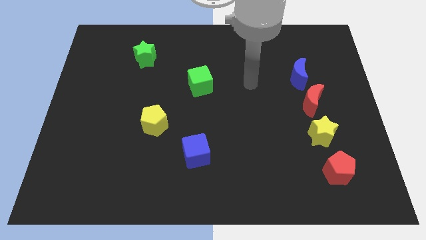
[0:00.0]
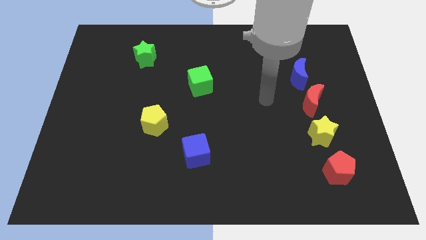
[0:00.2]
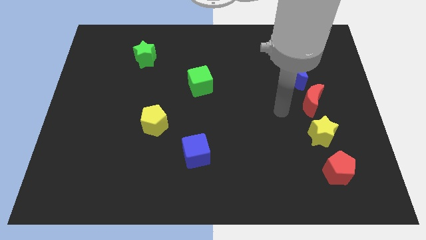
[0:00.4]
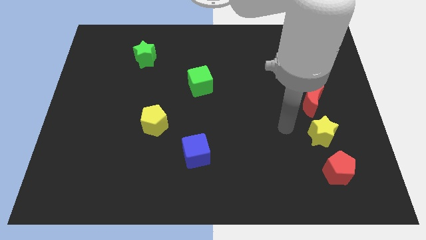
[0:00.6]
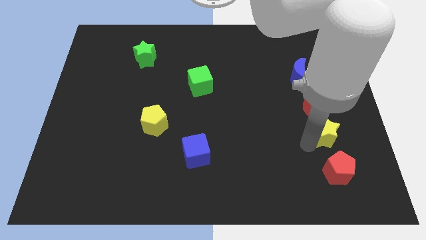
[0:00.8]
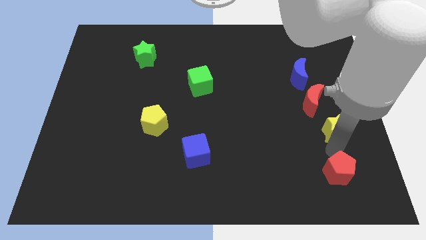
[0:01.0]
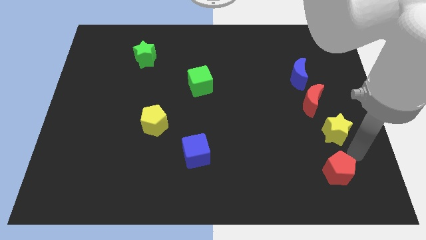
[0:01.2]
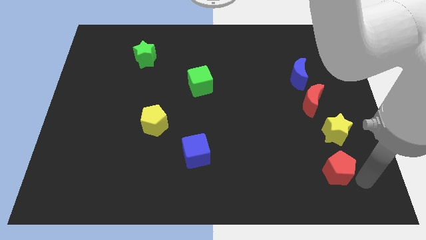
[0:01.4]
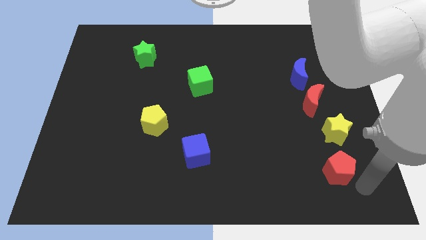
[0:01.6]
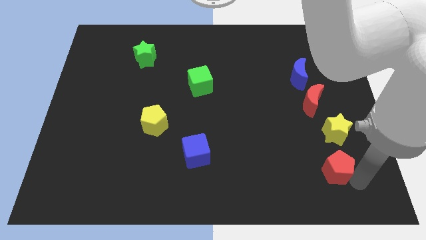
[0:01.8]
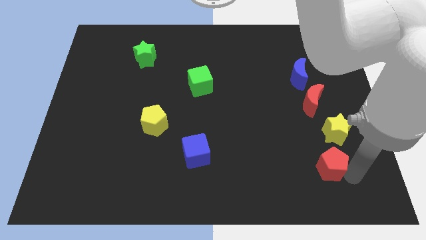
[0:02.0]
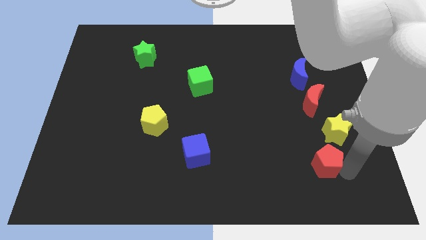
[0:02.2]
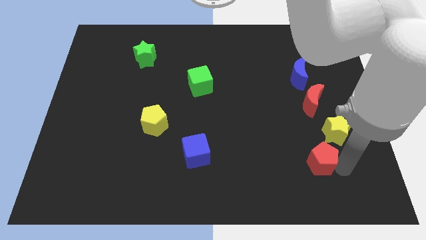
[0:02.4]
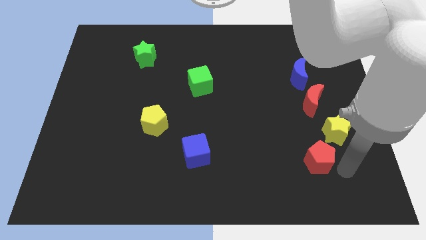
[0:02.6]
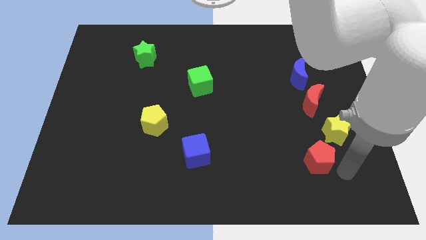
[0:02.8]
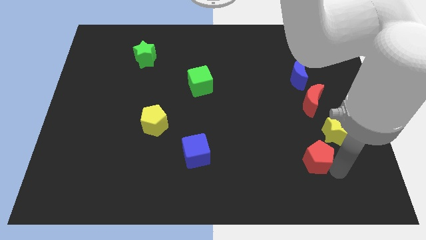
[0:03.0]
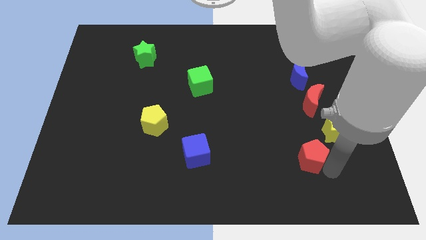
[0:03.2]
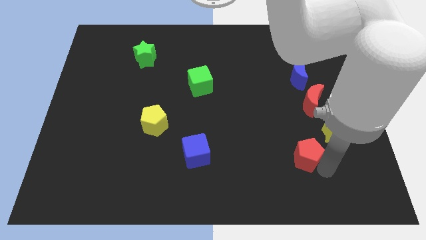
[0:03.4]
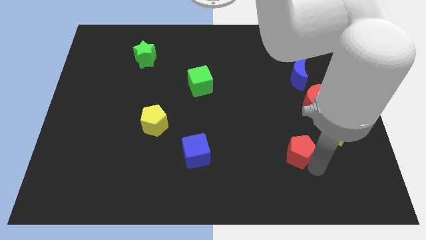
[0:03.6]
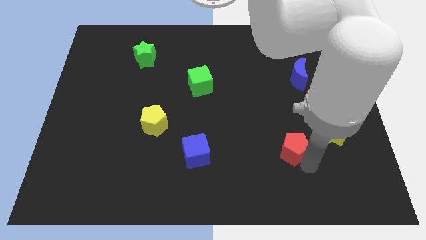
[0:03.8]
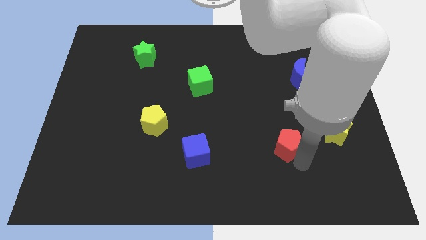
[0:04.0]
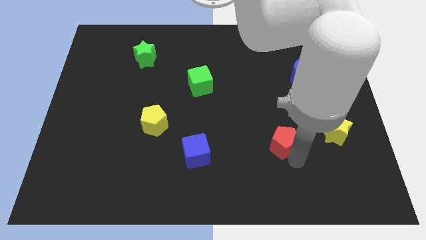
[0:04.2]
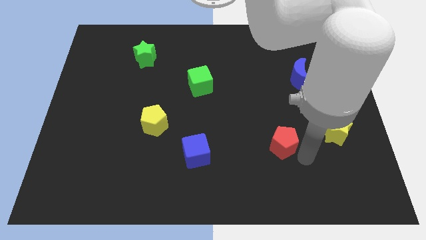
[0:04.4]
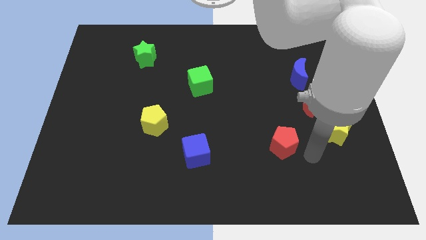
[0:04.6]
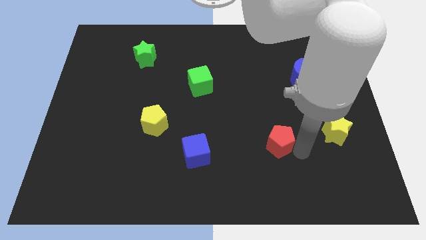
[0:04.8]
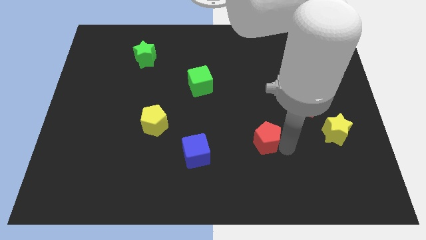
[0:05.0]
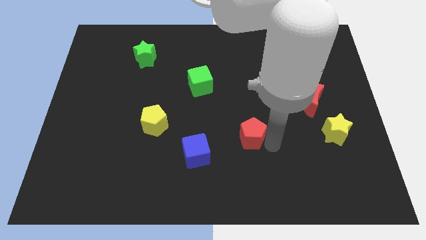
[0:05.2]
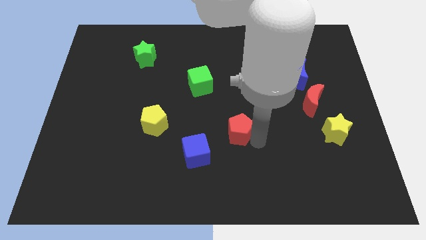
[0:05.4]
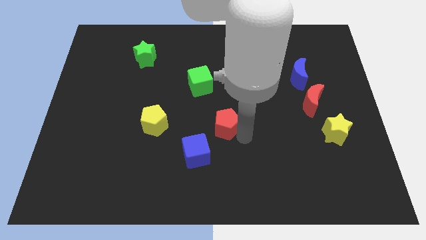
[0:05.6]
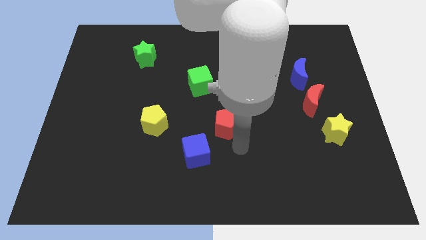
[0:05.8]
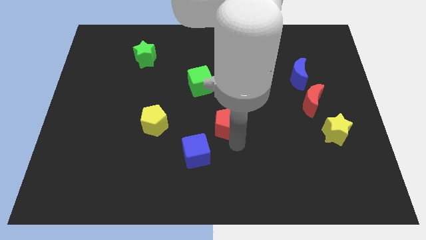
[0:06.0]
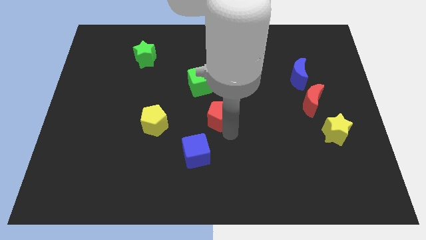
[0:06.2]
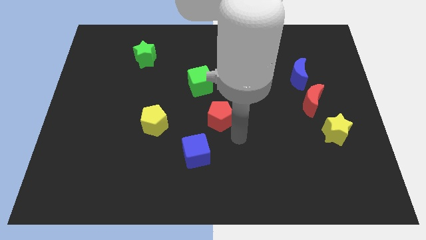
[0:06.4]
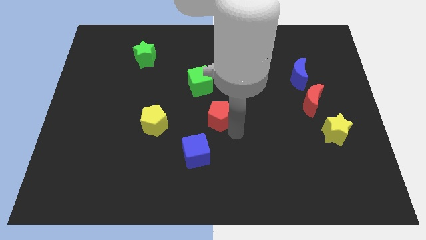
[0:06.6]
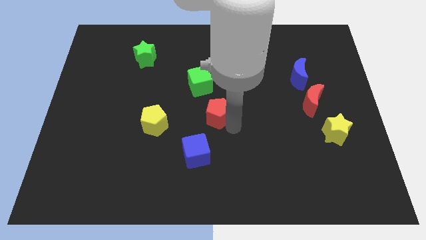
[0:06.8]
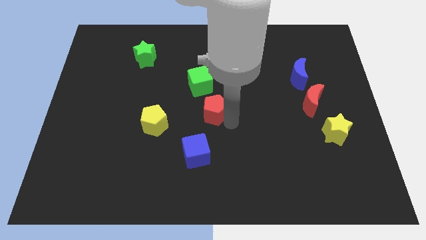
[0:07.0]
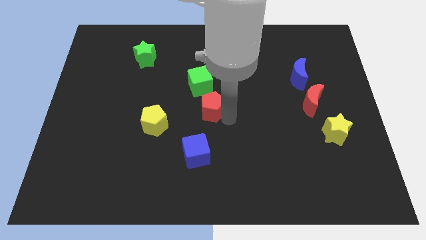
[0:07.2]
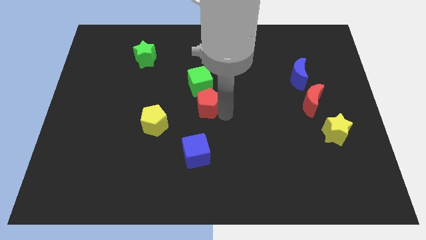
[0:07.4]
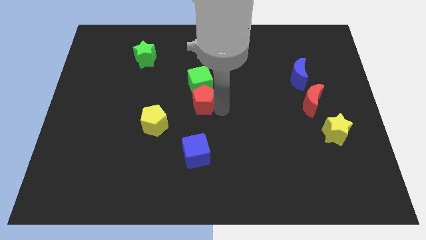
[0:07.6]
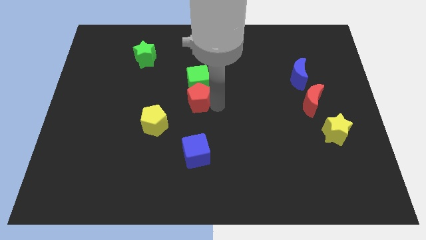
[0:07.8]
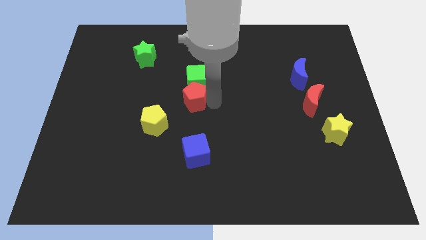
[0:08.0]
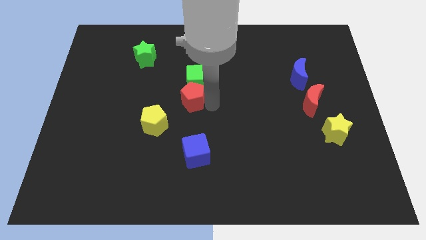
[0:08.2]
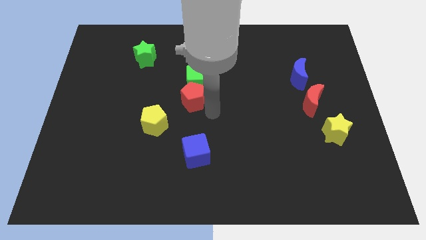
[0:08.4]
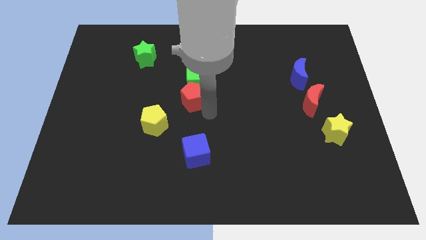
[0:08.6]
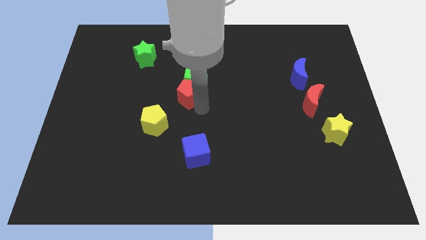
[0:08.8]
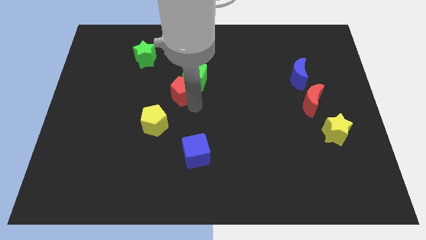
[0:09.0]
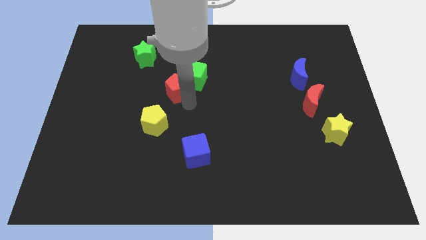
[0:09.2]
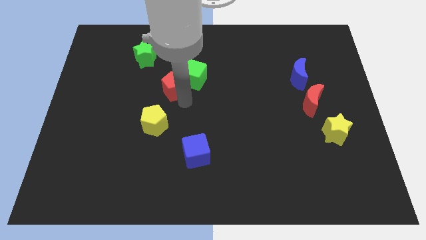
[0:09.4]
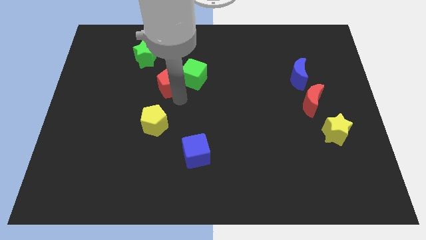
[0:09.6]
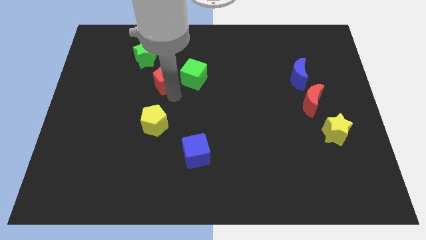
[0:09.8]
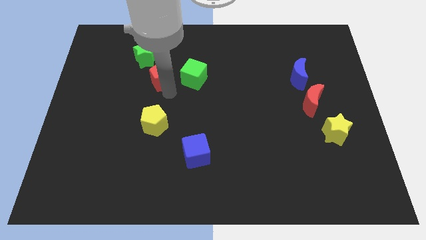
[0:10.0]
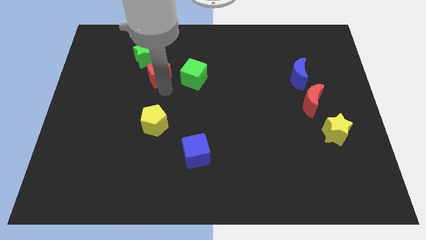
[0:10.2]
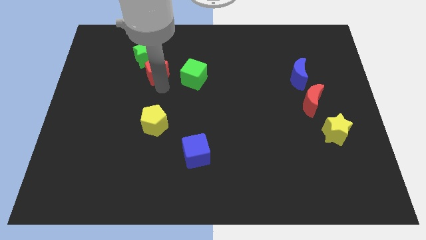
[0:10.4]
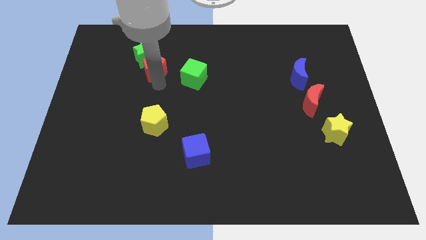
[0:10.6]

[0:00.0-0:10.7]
move the red pentagon towards the green star

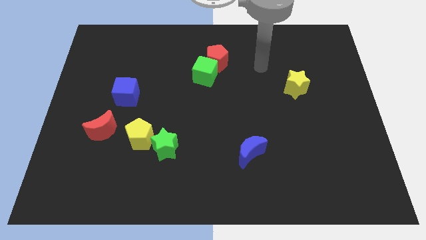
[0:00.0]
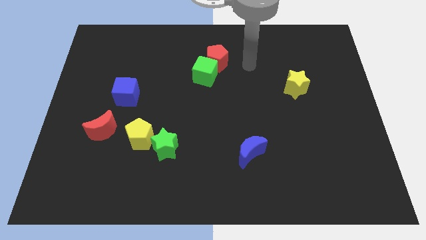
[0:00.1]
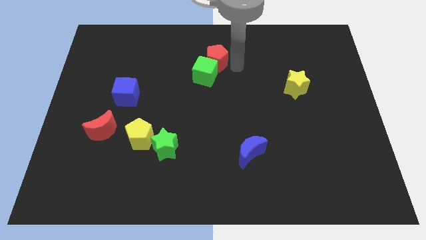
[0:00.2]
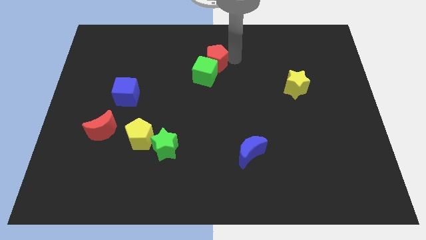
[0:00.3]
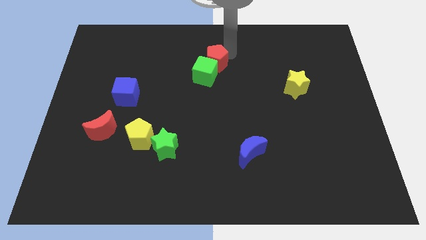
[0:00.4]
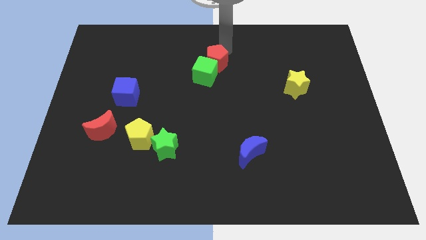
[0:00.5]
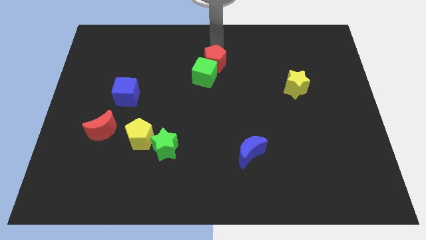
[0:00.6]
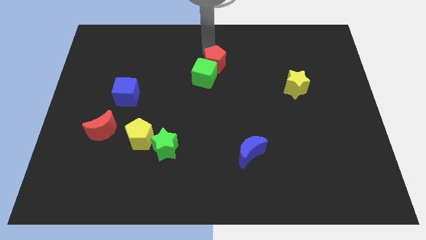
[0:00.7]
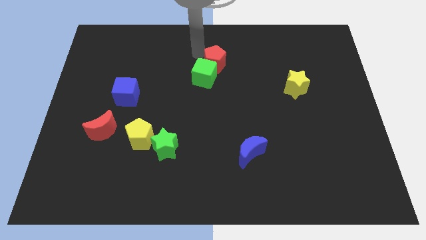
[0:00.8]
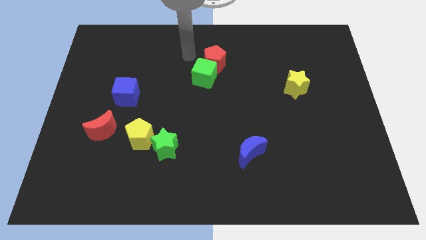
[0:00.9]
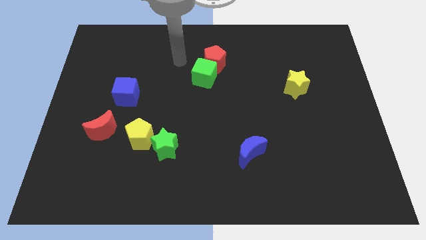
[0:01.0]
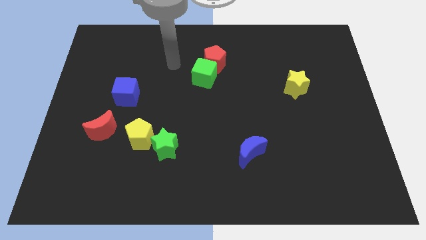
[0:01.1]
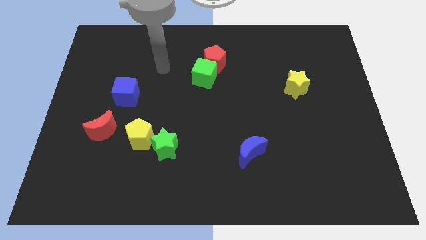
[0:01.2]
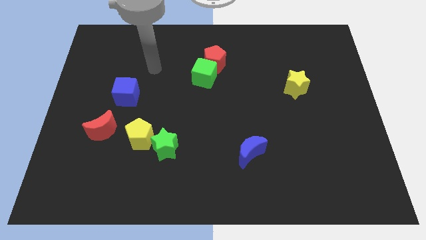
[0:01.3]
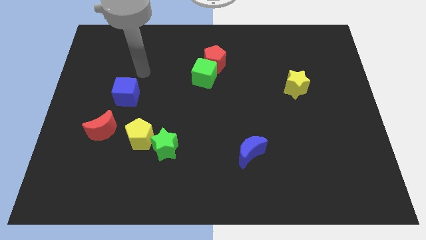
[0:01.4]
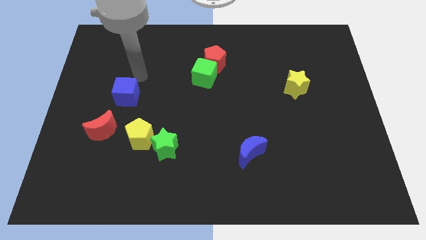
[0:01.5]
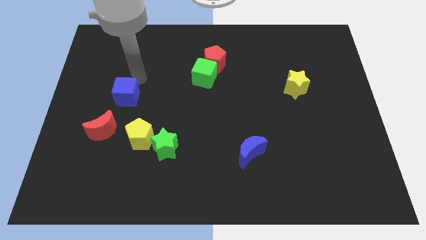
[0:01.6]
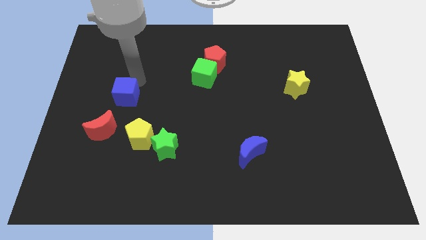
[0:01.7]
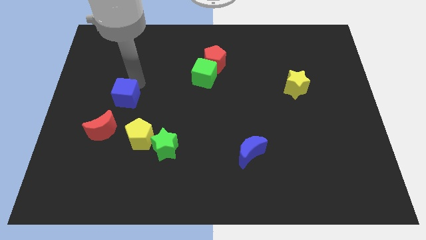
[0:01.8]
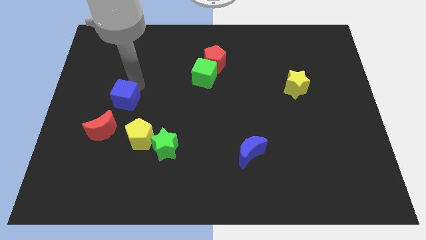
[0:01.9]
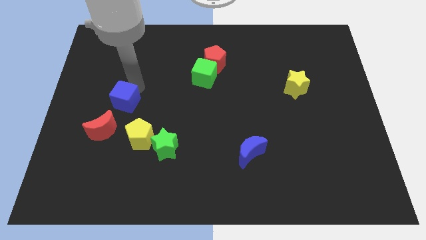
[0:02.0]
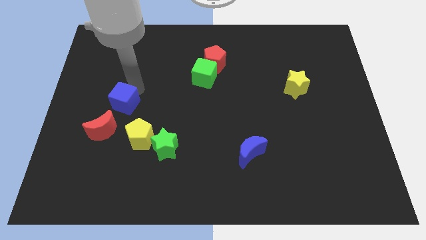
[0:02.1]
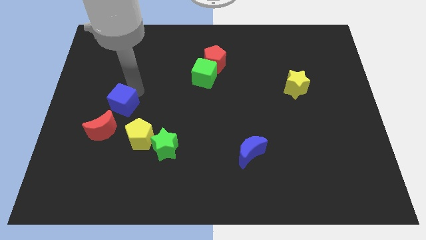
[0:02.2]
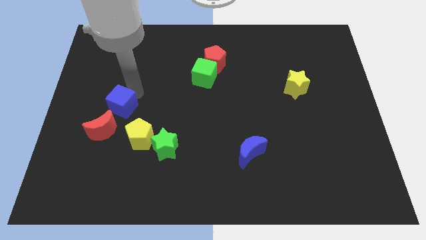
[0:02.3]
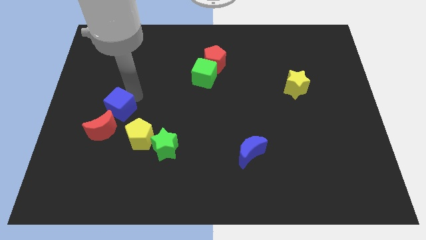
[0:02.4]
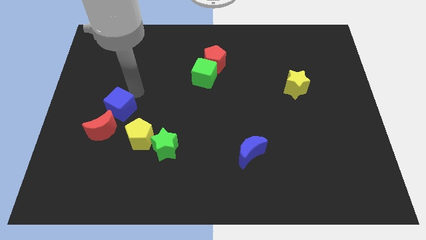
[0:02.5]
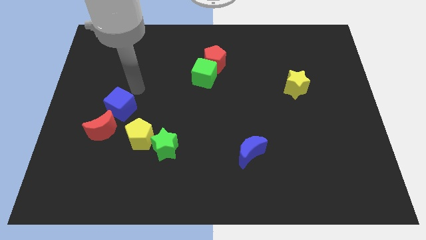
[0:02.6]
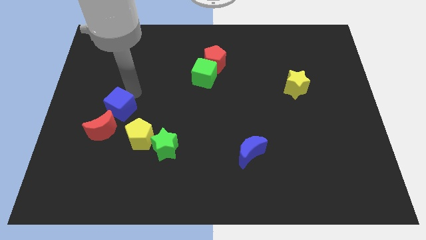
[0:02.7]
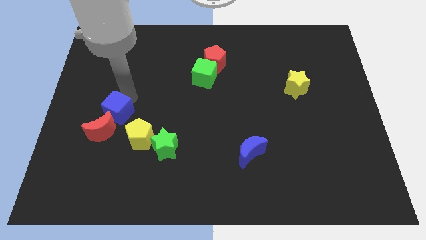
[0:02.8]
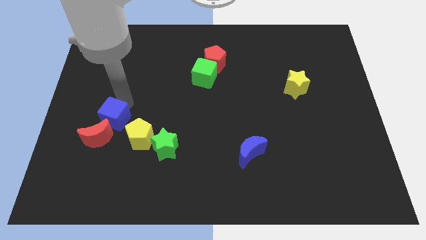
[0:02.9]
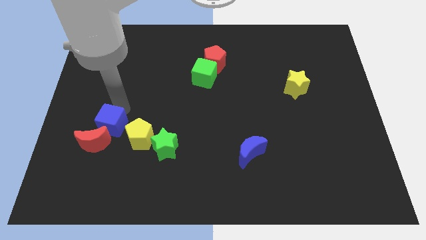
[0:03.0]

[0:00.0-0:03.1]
move the blue cube next to the red moon
